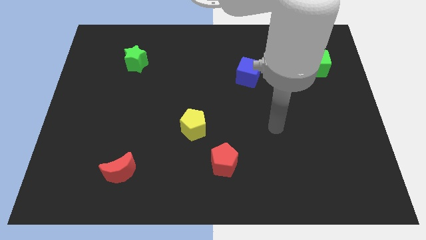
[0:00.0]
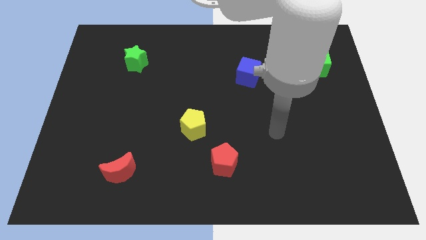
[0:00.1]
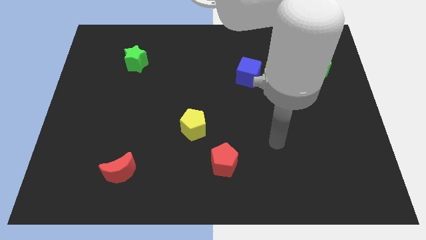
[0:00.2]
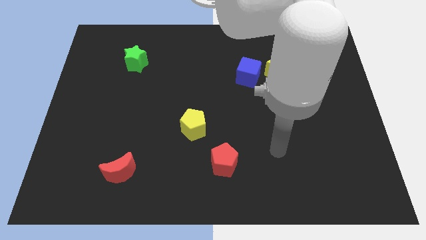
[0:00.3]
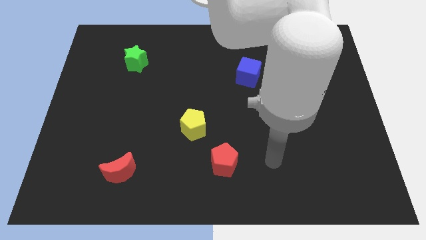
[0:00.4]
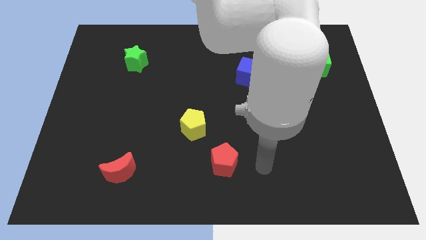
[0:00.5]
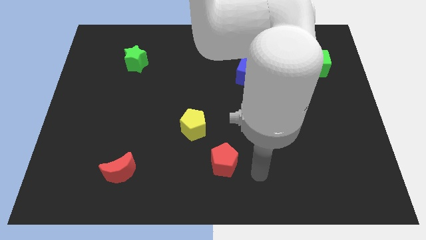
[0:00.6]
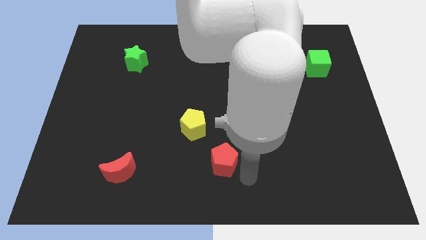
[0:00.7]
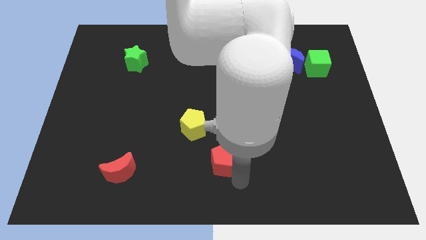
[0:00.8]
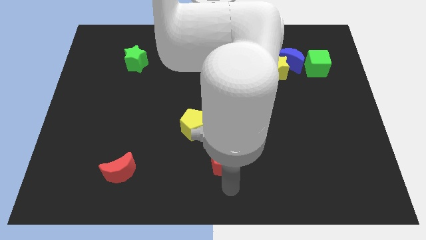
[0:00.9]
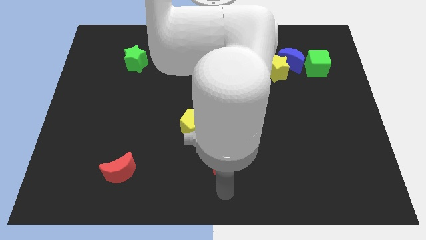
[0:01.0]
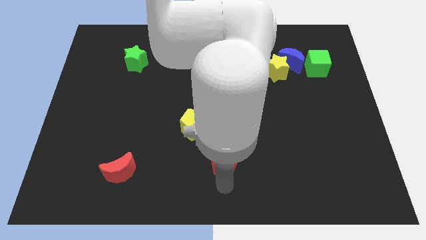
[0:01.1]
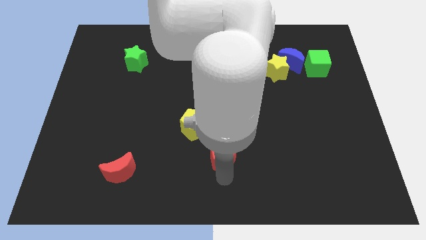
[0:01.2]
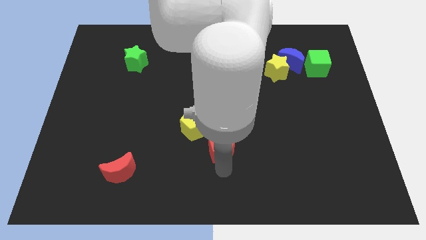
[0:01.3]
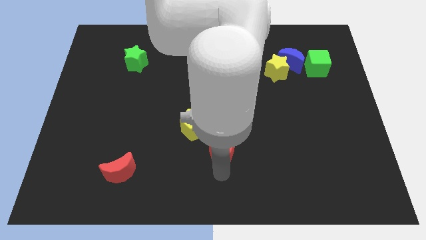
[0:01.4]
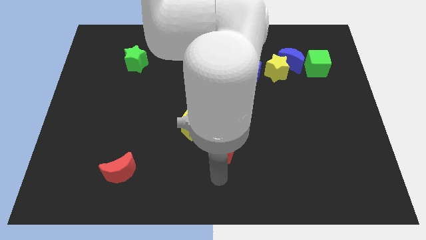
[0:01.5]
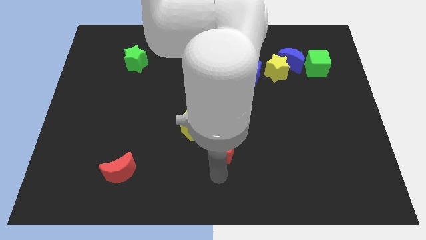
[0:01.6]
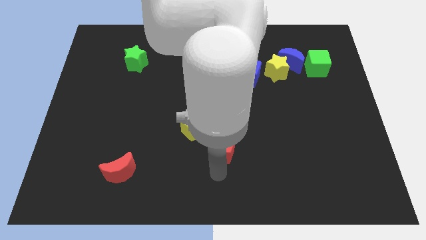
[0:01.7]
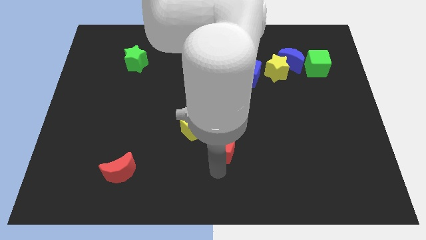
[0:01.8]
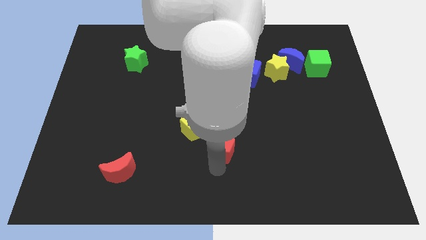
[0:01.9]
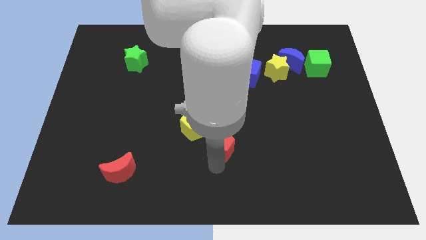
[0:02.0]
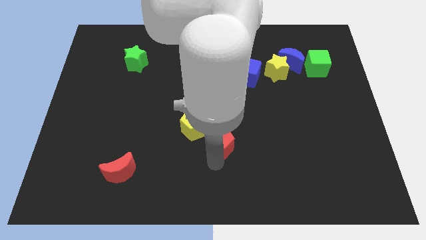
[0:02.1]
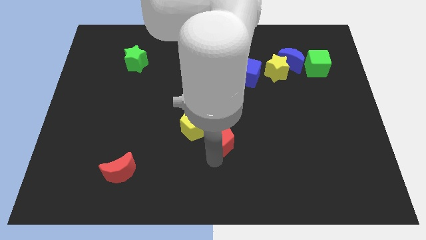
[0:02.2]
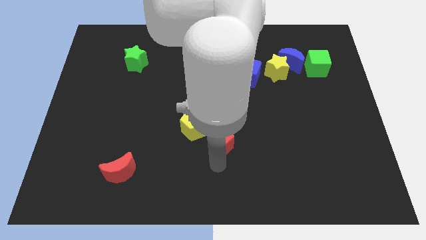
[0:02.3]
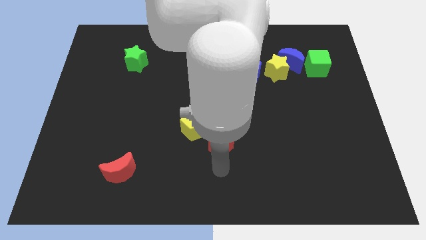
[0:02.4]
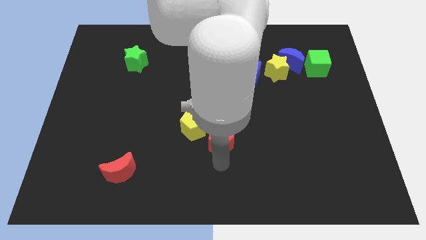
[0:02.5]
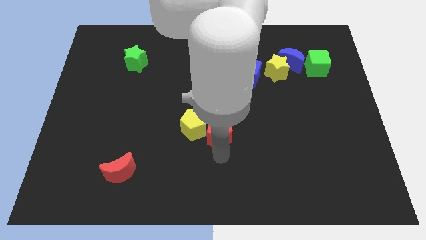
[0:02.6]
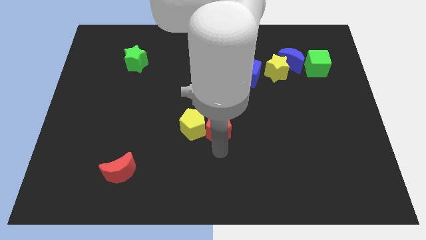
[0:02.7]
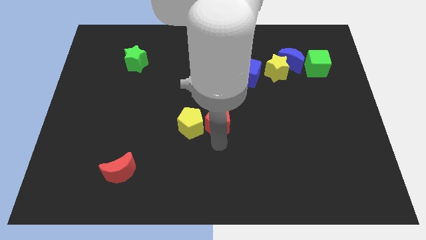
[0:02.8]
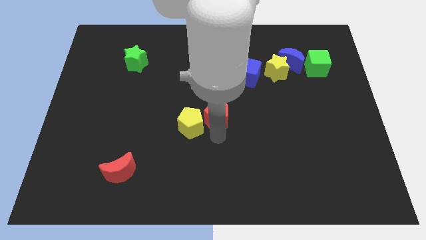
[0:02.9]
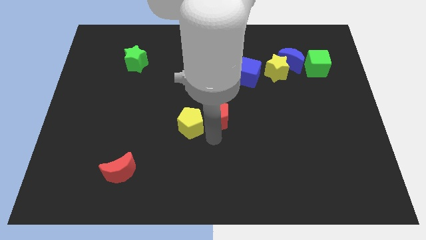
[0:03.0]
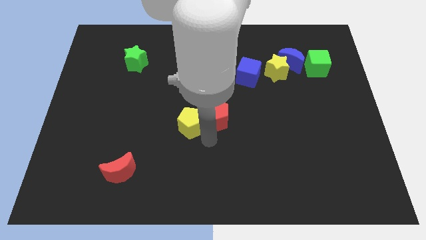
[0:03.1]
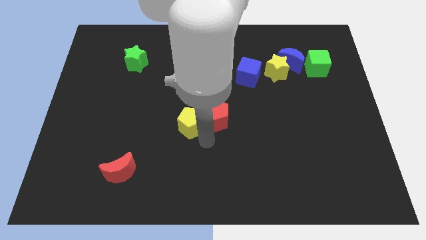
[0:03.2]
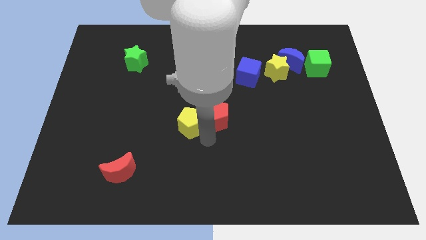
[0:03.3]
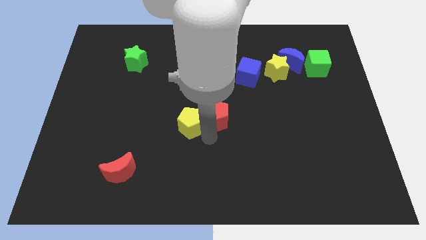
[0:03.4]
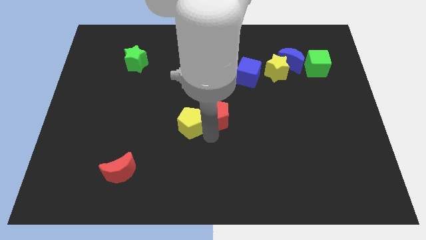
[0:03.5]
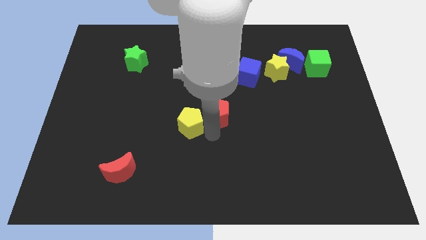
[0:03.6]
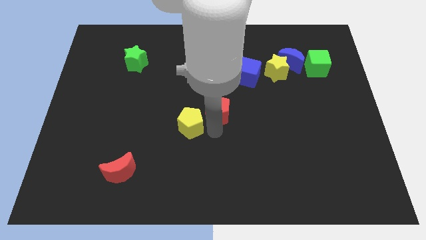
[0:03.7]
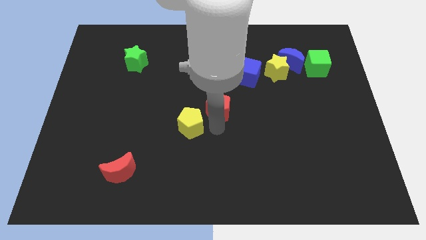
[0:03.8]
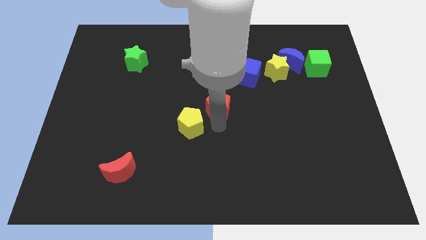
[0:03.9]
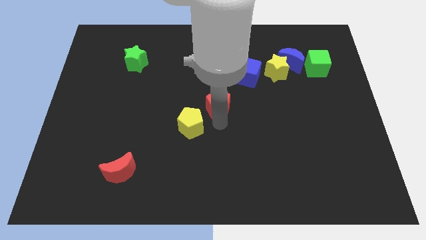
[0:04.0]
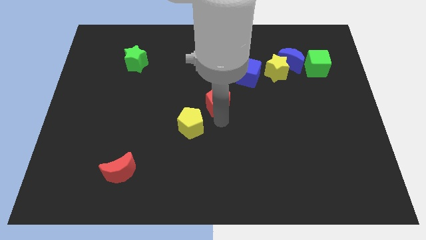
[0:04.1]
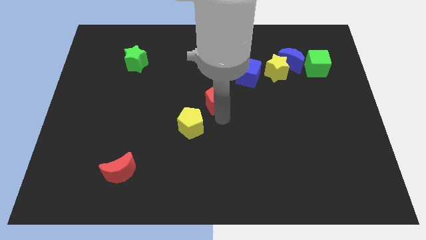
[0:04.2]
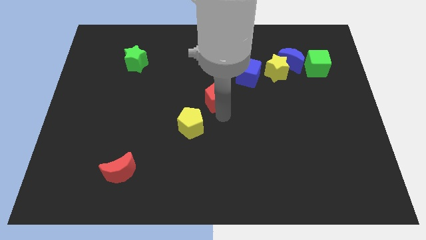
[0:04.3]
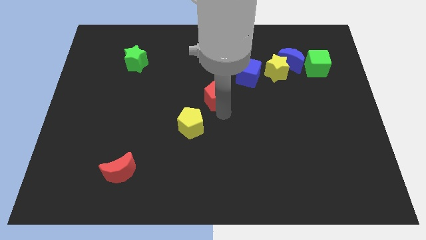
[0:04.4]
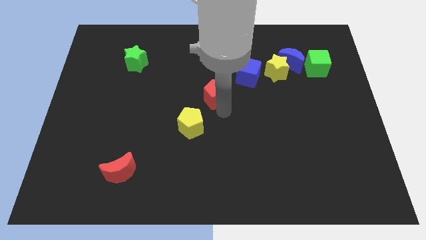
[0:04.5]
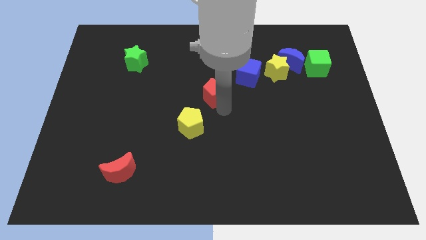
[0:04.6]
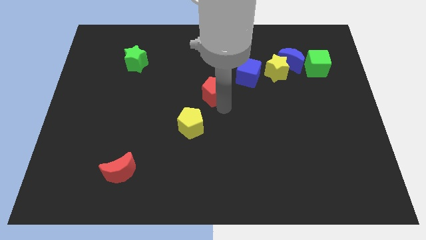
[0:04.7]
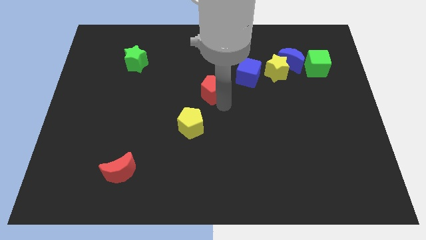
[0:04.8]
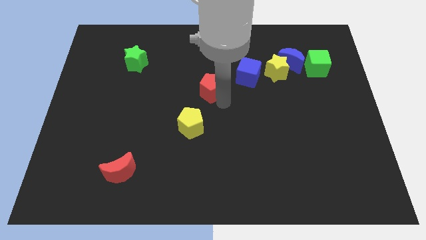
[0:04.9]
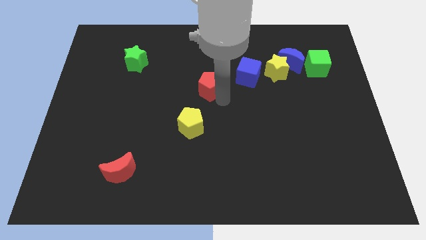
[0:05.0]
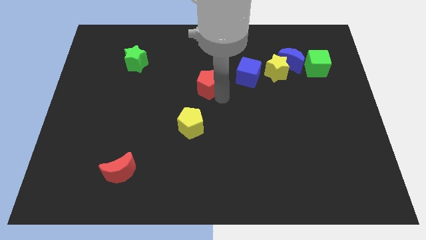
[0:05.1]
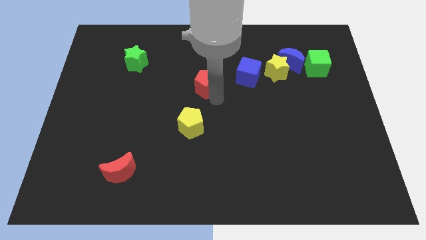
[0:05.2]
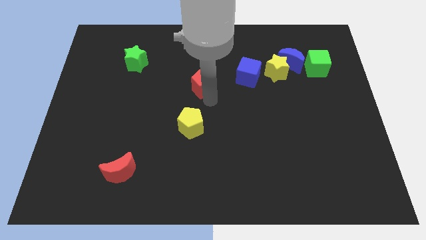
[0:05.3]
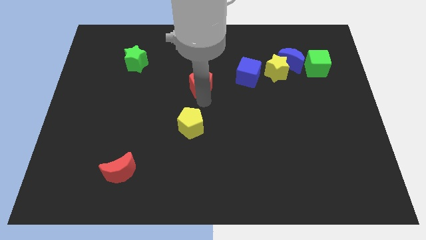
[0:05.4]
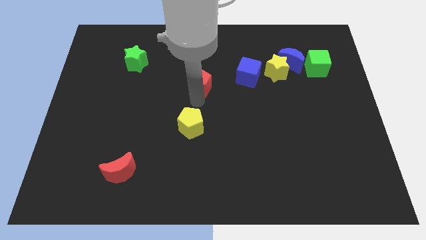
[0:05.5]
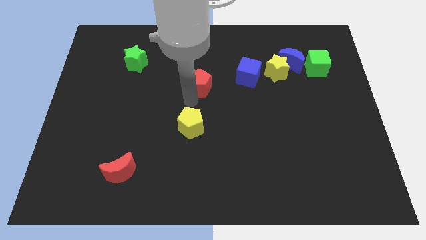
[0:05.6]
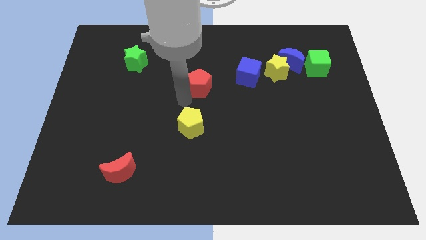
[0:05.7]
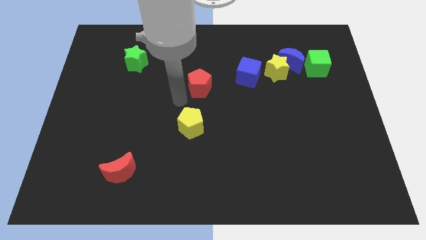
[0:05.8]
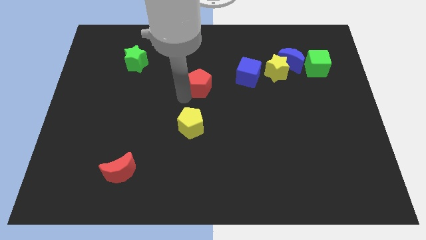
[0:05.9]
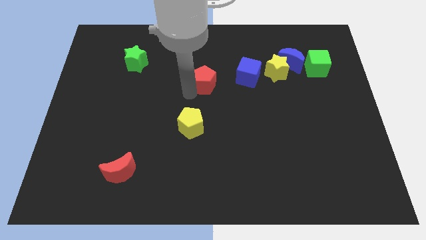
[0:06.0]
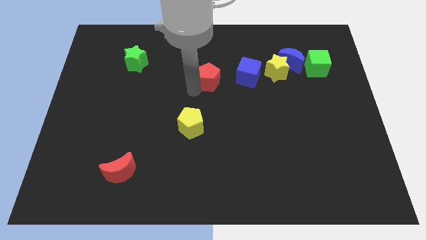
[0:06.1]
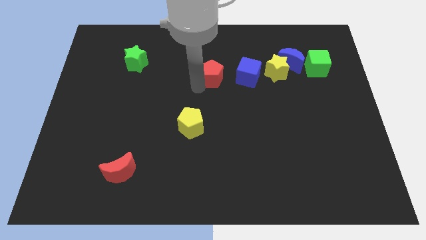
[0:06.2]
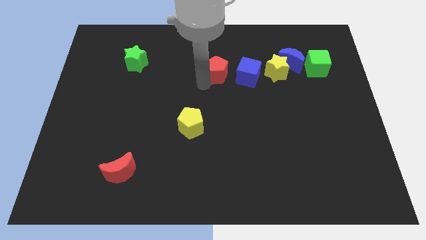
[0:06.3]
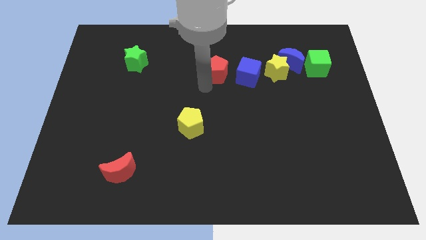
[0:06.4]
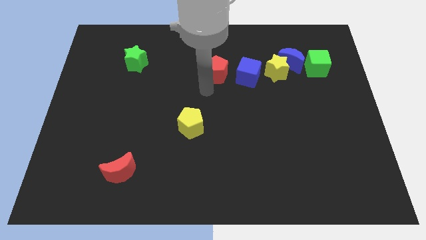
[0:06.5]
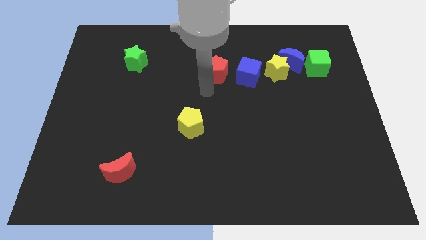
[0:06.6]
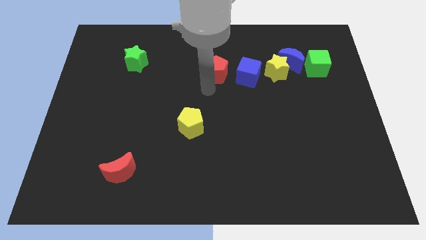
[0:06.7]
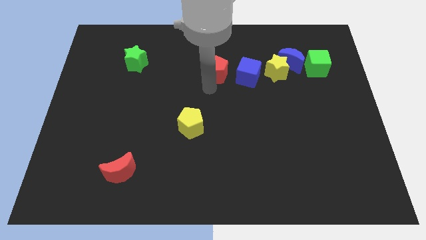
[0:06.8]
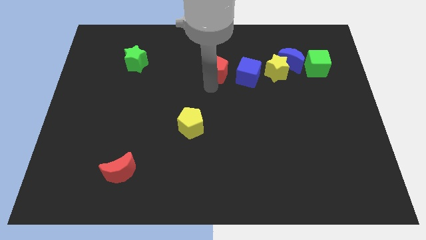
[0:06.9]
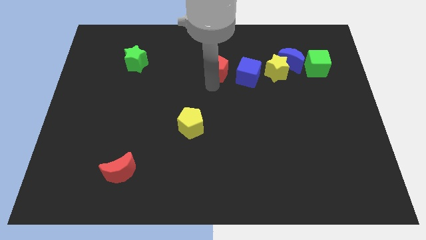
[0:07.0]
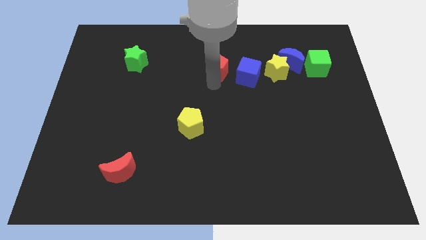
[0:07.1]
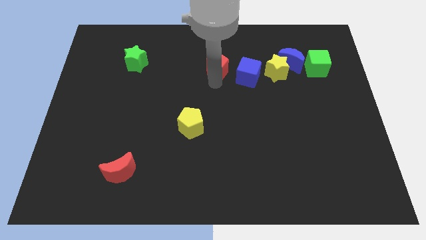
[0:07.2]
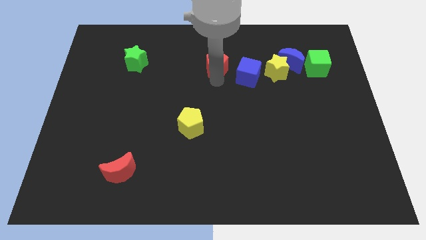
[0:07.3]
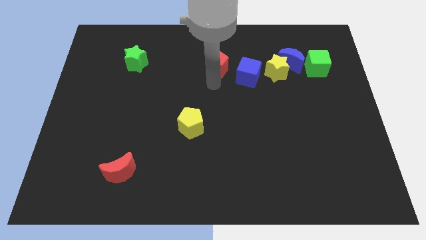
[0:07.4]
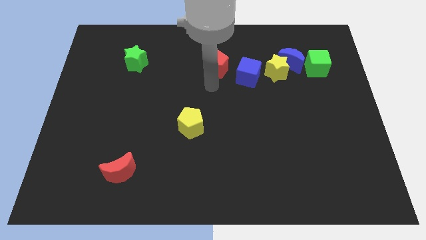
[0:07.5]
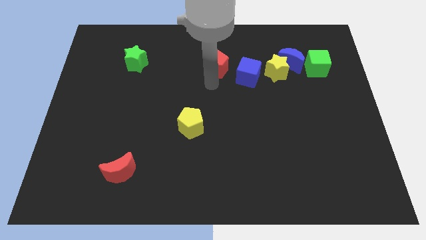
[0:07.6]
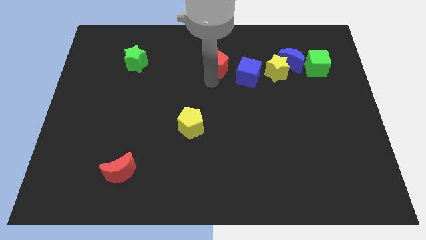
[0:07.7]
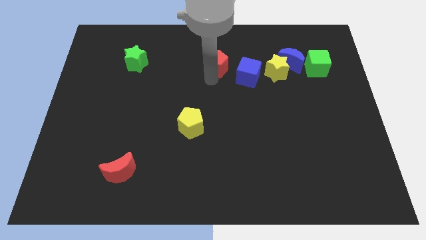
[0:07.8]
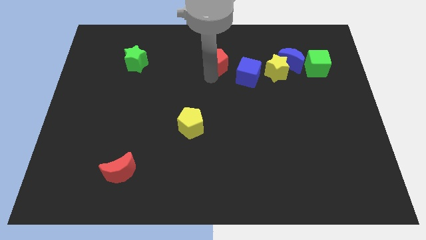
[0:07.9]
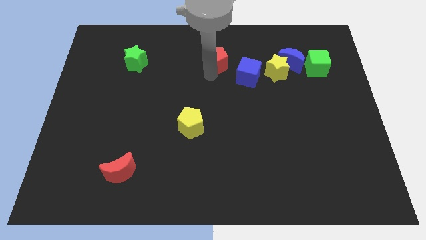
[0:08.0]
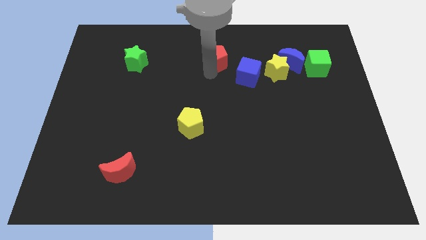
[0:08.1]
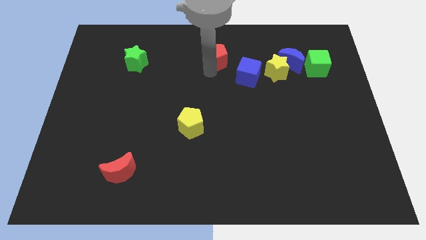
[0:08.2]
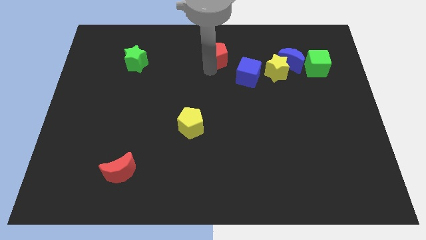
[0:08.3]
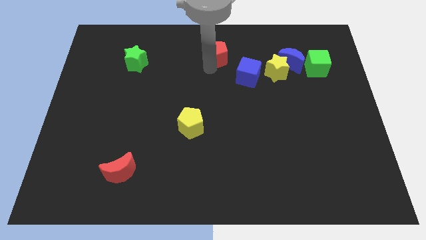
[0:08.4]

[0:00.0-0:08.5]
put the red pentagon to the top side
